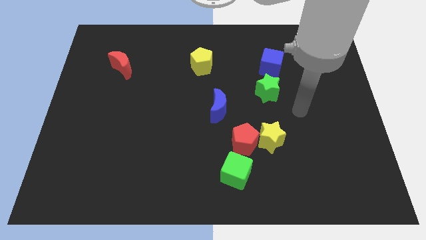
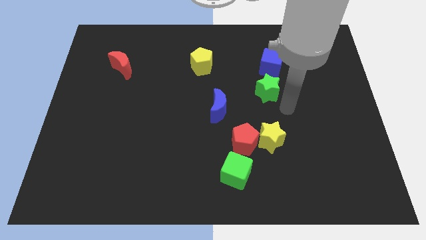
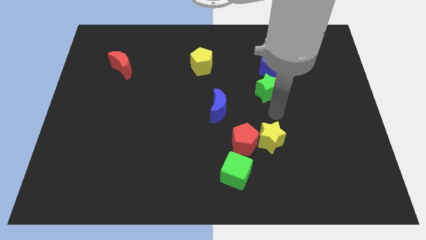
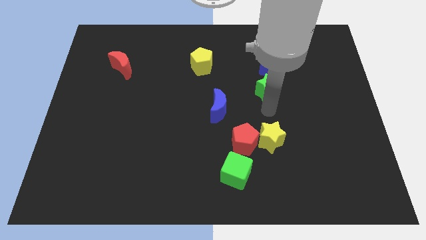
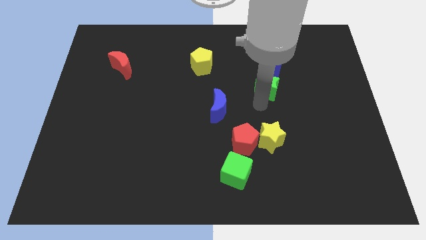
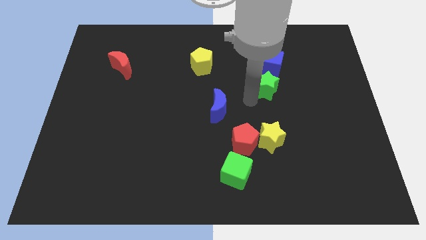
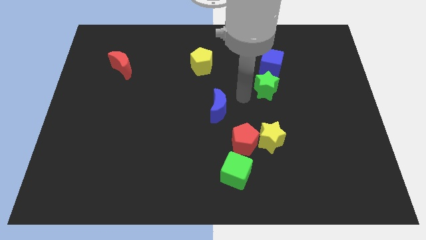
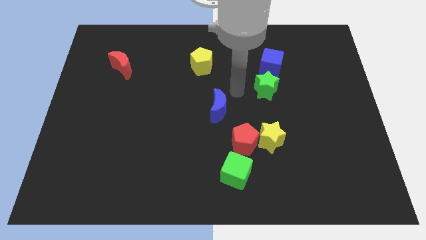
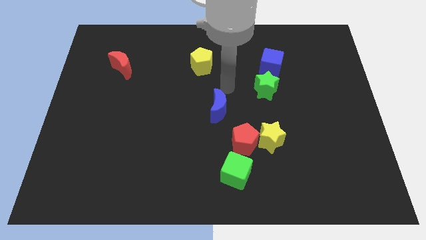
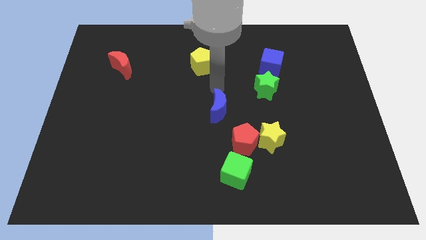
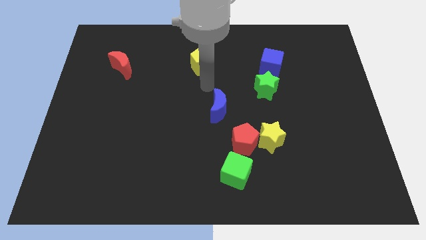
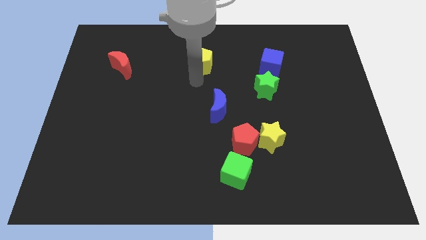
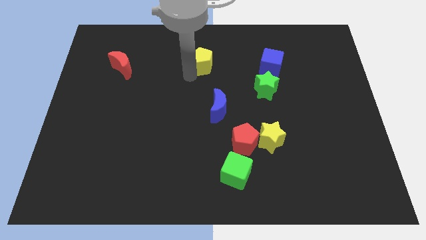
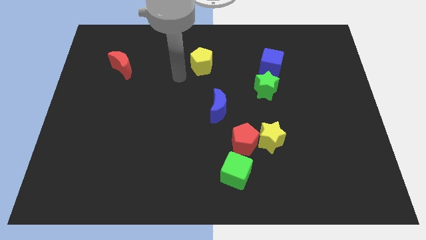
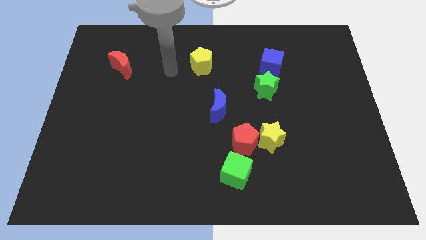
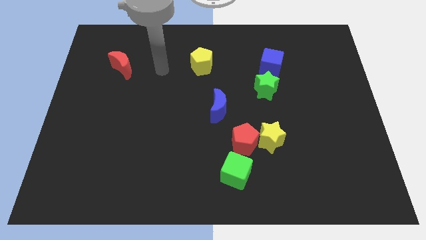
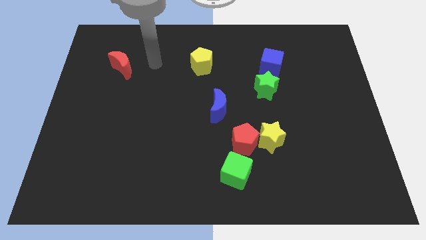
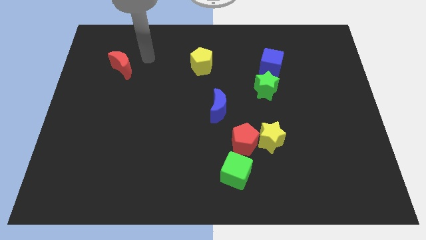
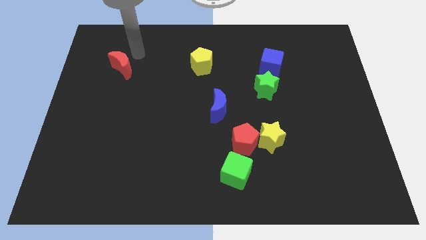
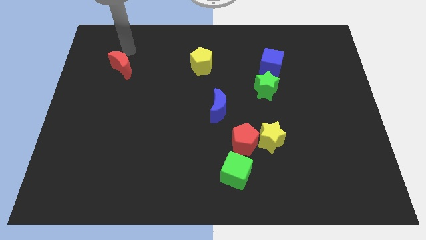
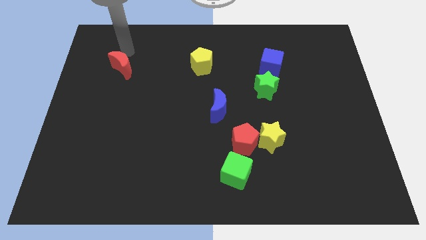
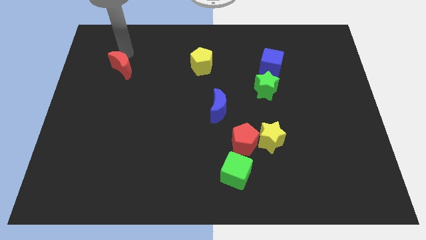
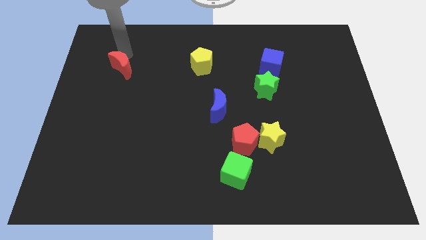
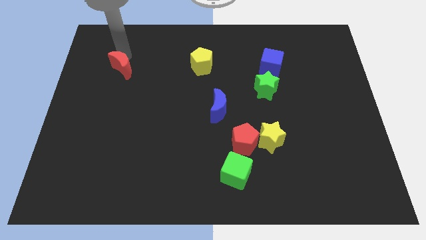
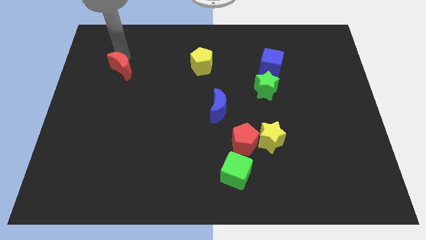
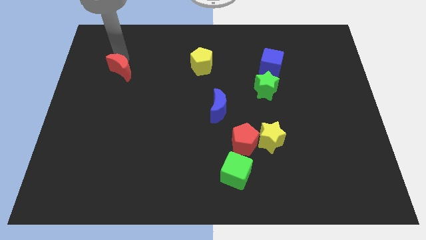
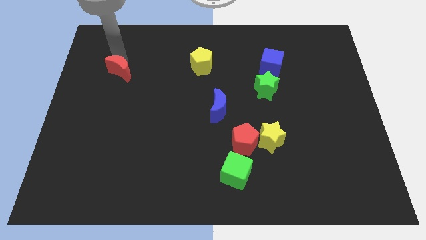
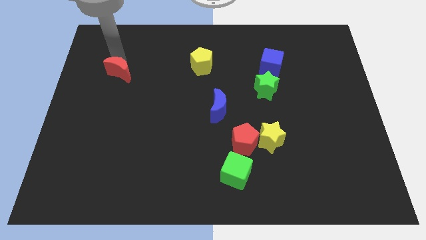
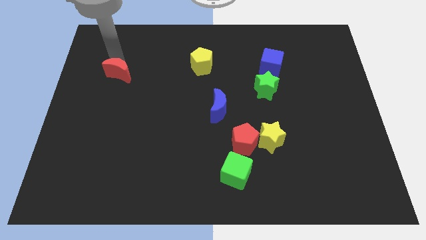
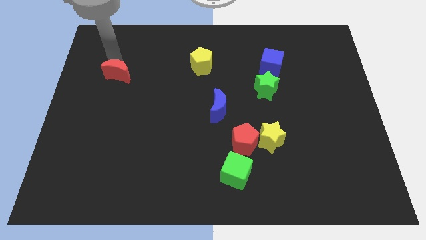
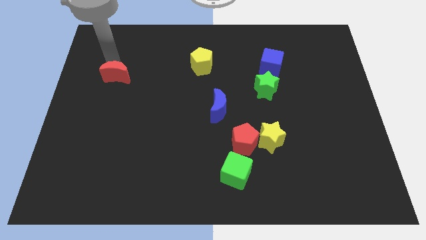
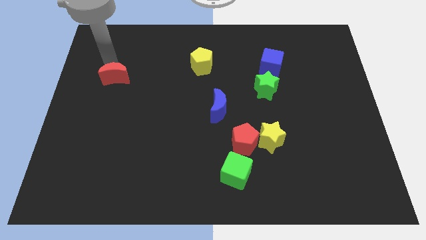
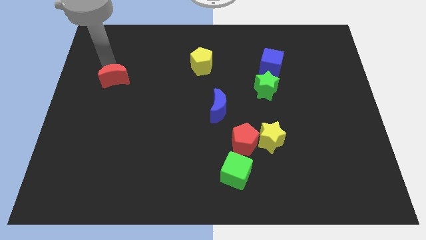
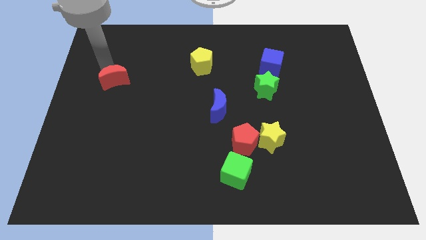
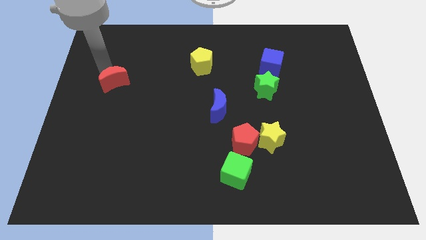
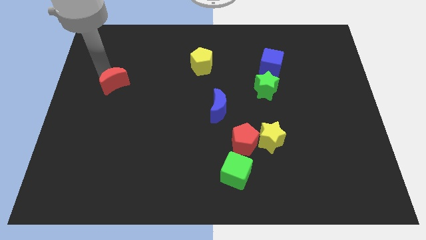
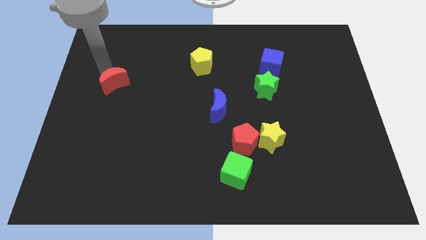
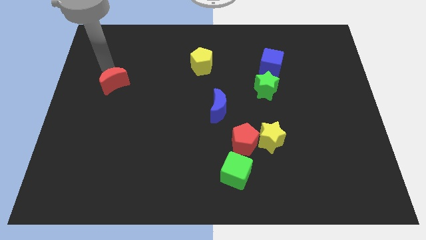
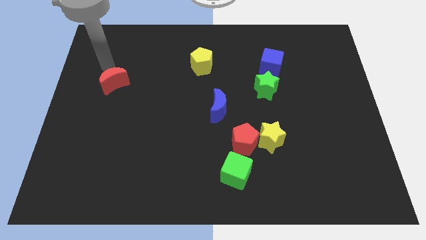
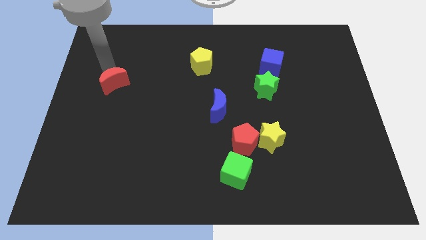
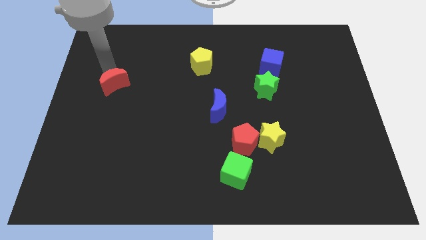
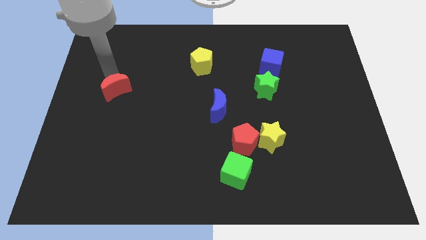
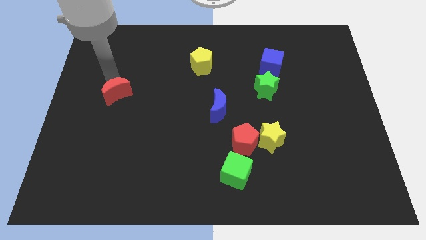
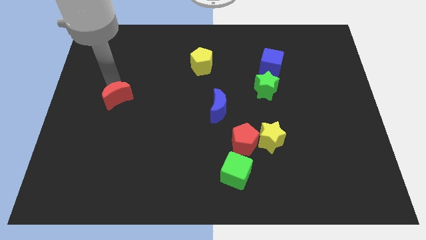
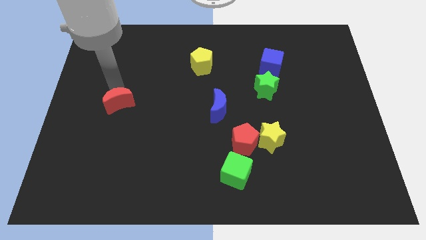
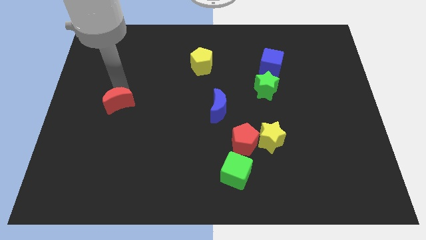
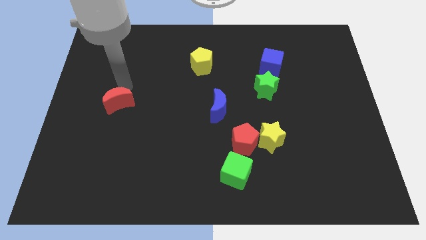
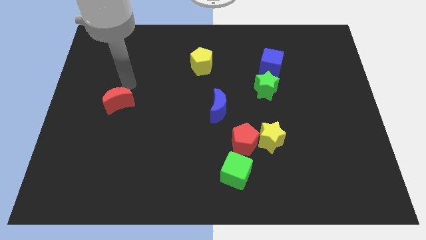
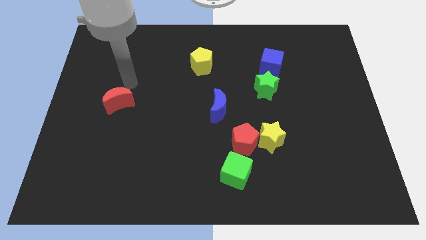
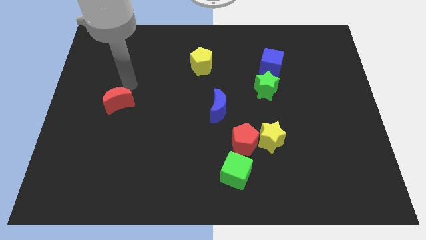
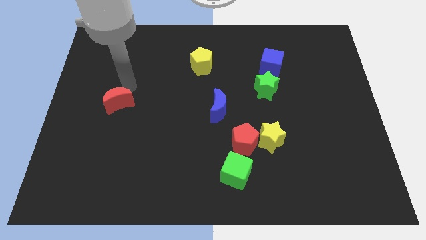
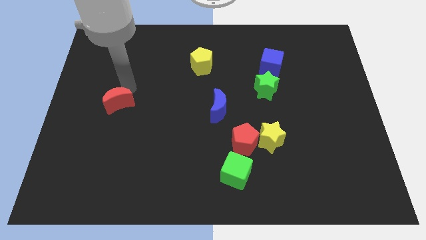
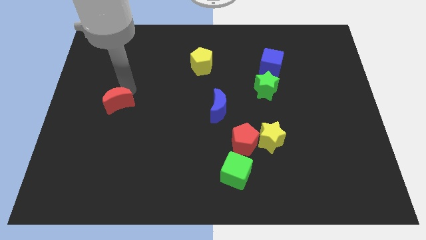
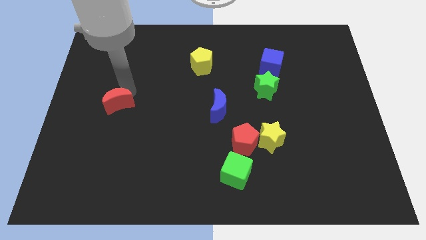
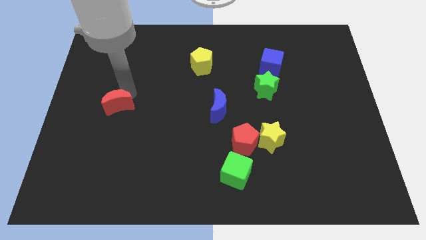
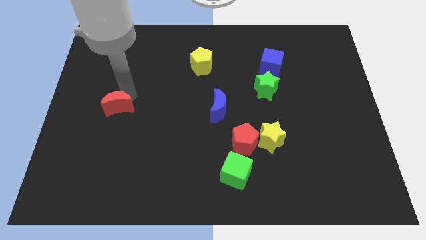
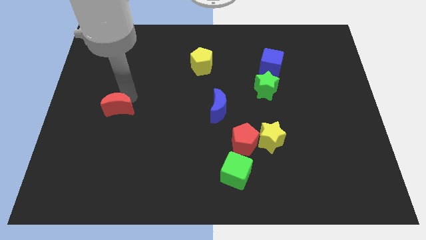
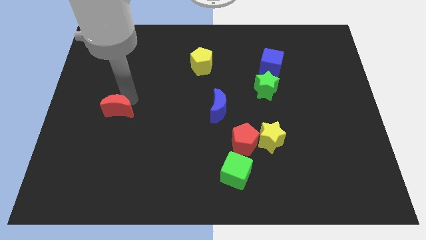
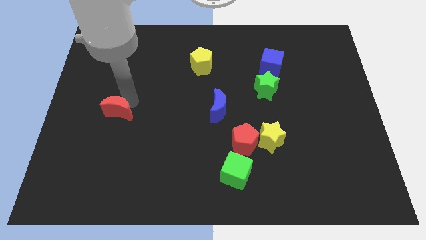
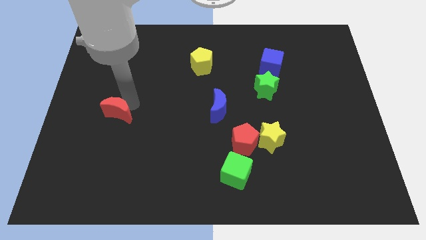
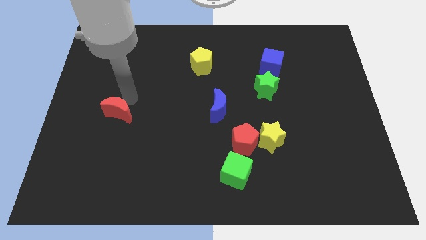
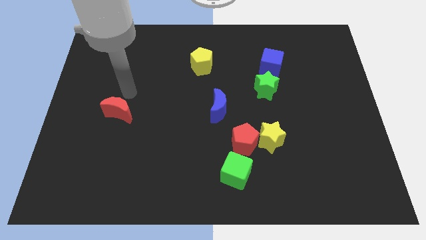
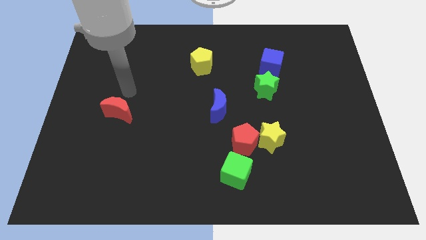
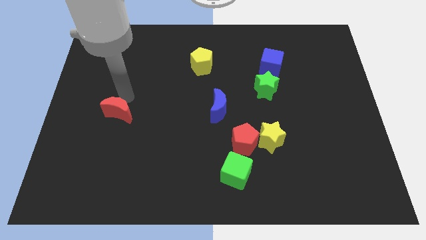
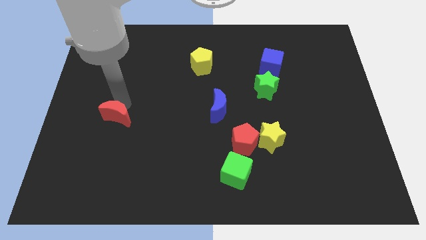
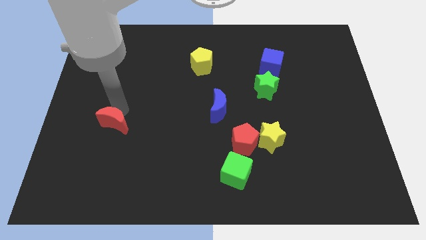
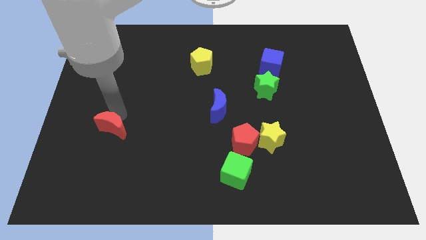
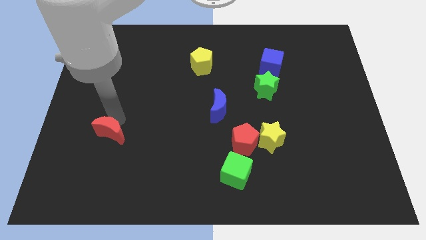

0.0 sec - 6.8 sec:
slide the red moon downwards

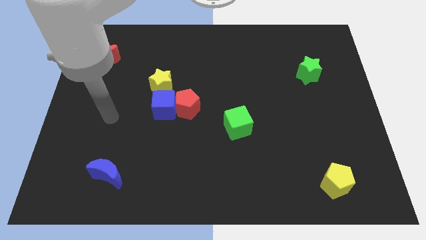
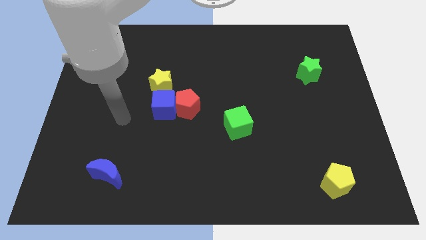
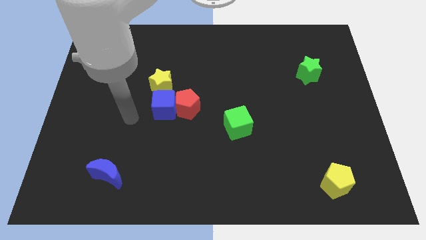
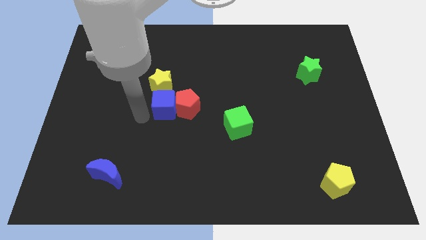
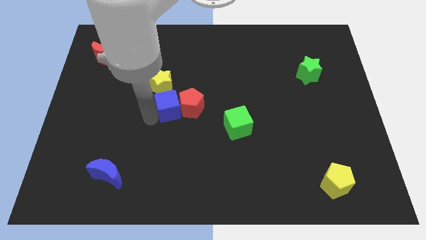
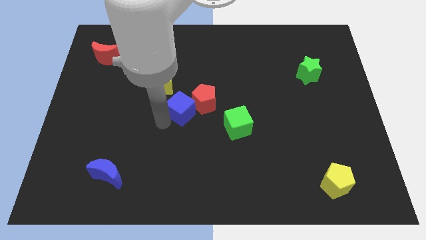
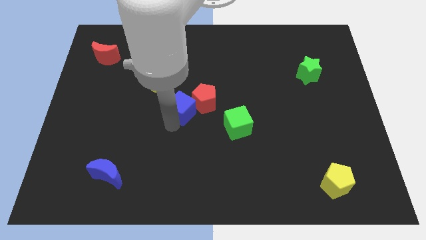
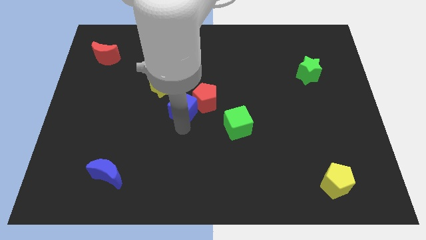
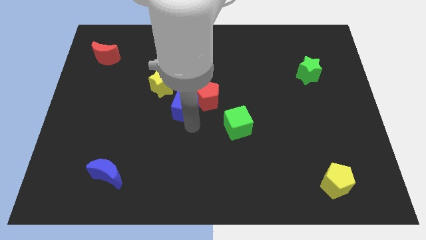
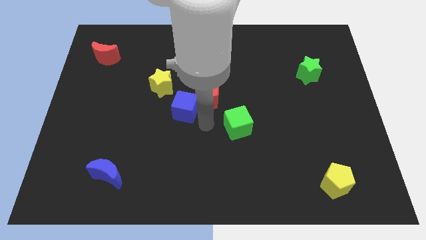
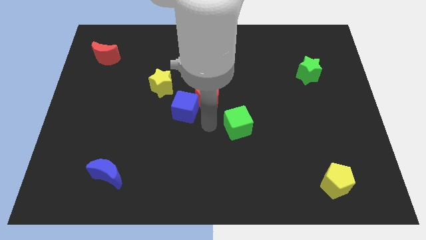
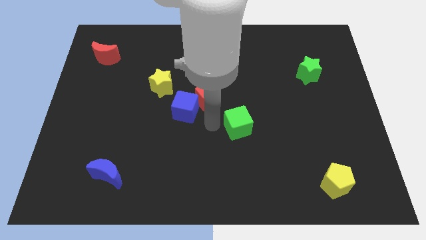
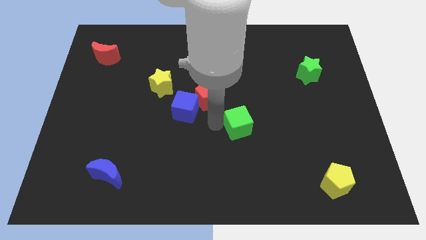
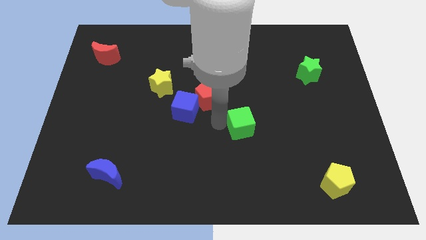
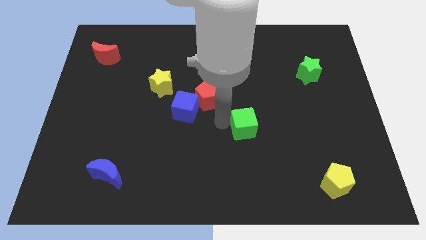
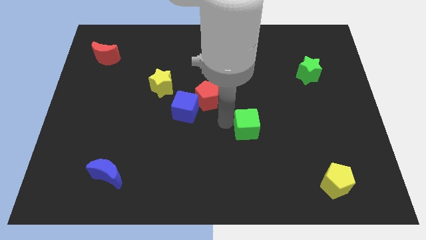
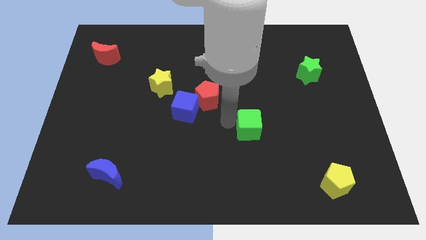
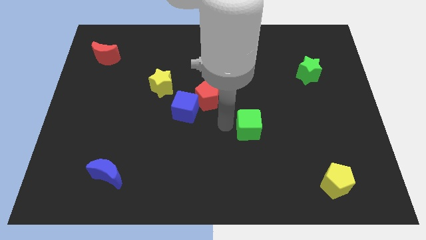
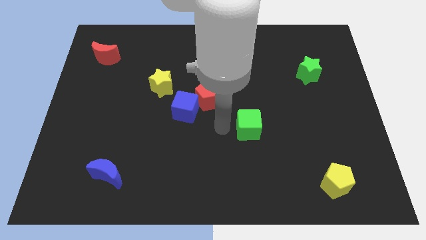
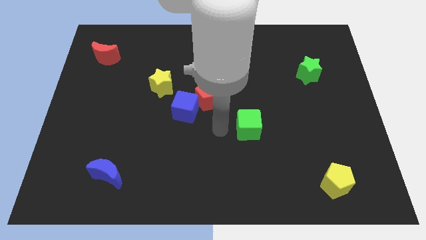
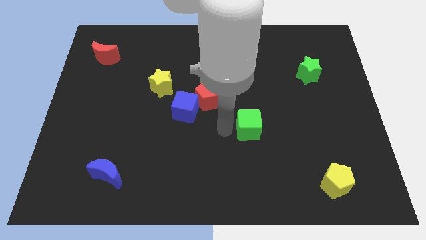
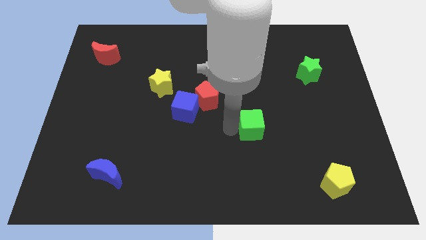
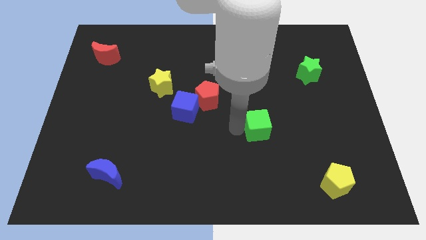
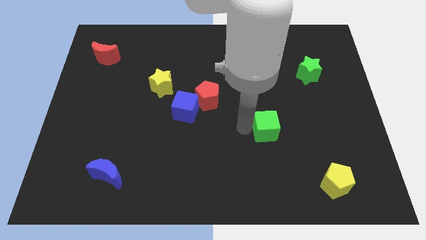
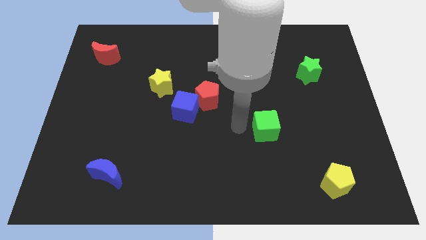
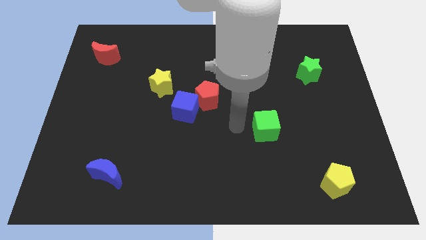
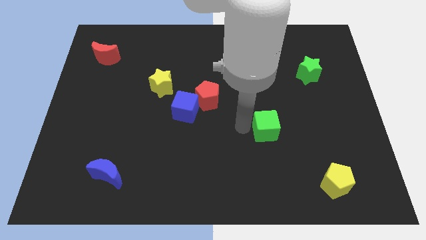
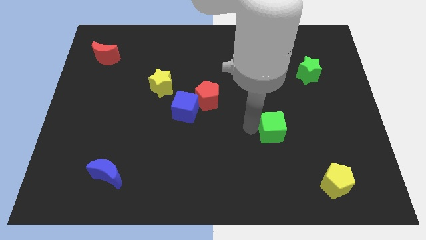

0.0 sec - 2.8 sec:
slide the green cube slightly right
